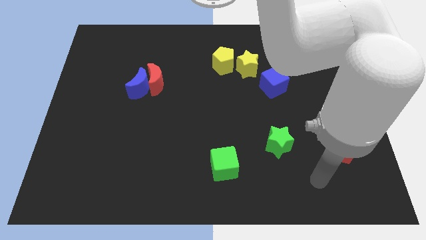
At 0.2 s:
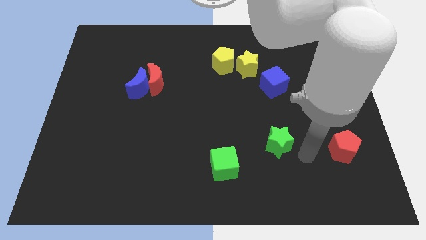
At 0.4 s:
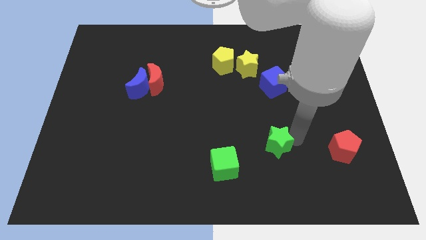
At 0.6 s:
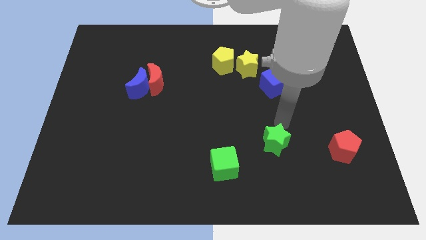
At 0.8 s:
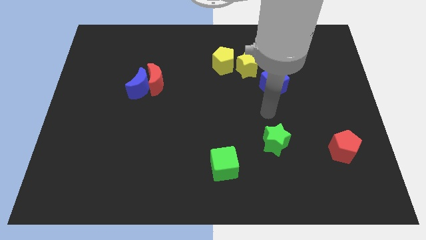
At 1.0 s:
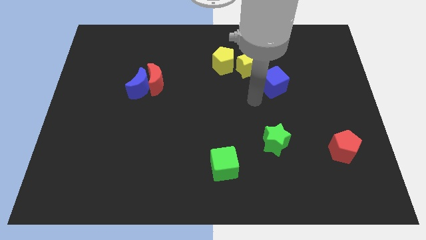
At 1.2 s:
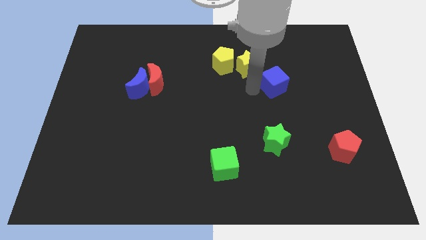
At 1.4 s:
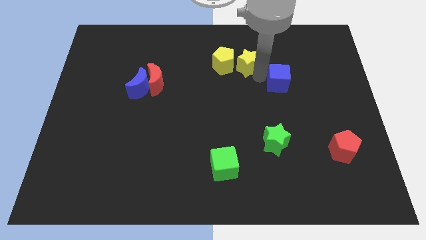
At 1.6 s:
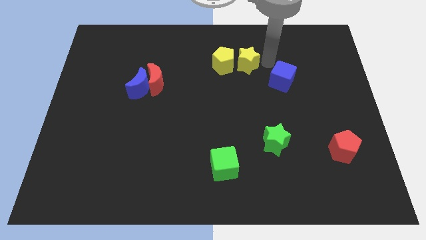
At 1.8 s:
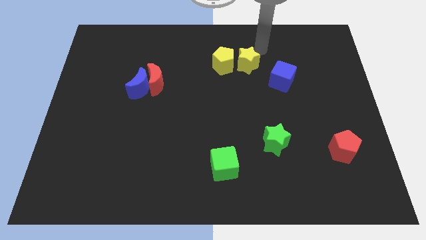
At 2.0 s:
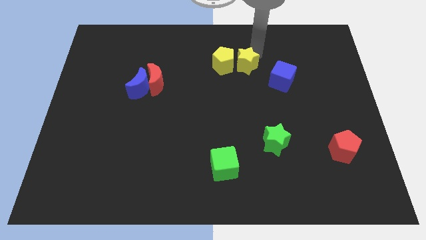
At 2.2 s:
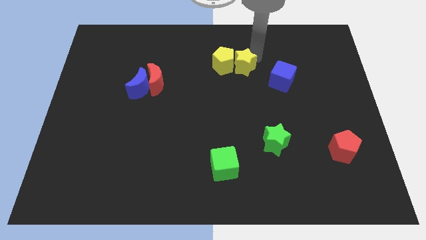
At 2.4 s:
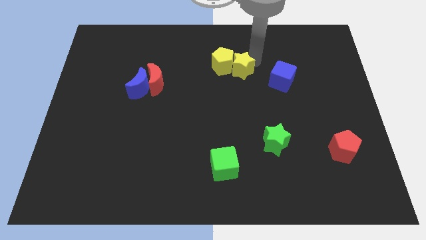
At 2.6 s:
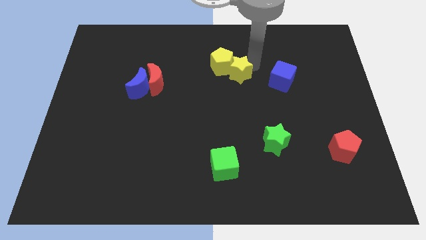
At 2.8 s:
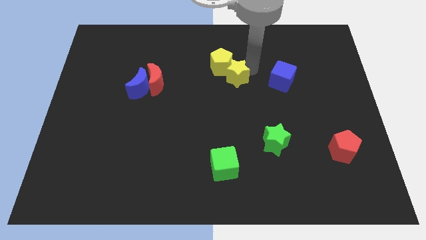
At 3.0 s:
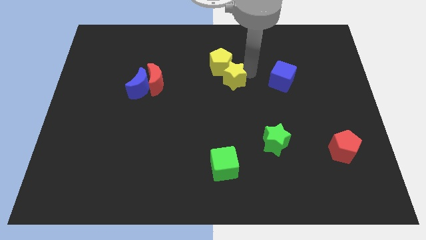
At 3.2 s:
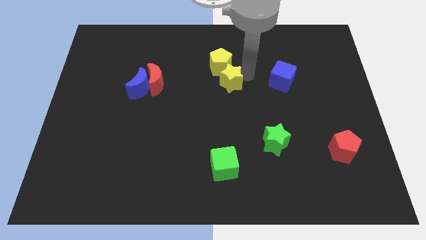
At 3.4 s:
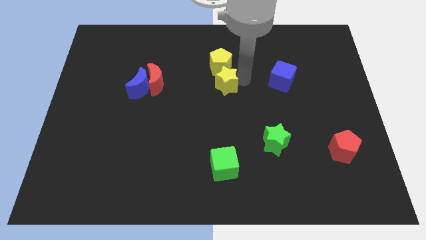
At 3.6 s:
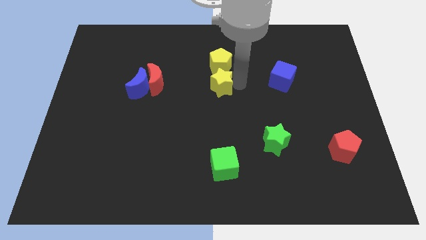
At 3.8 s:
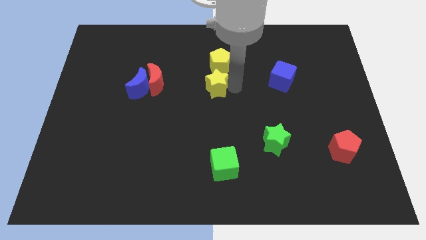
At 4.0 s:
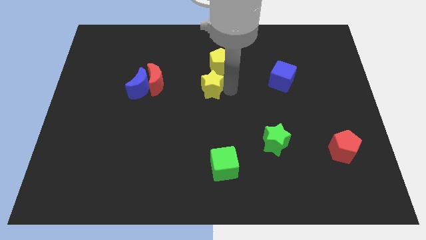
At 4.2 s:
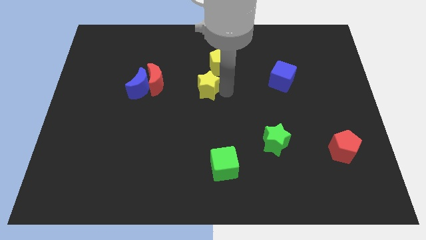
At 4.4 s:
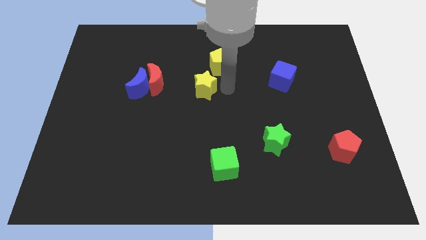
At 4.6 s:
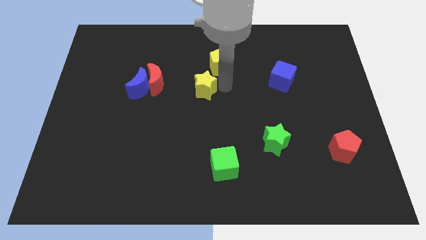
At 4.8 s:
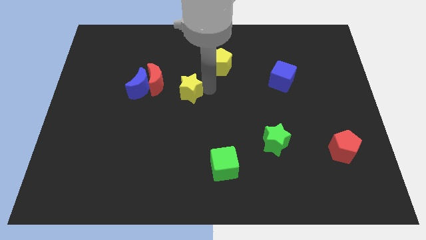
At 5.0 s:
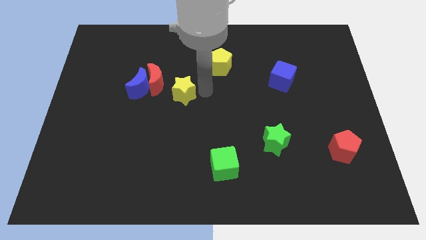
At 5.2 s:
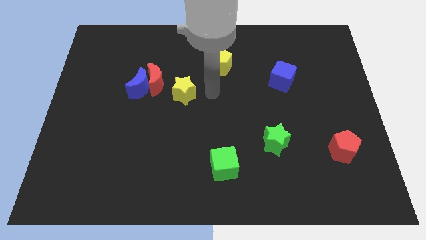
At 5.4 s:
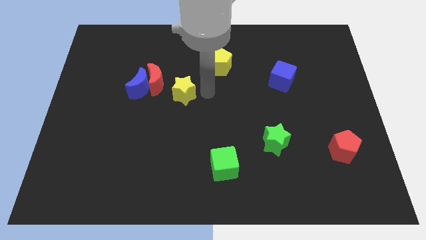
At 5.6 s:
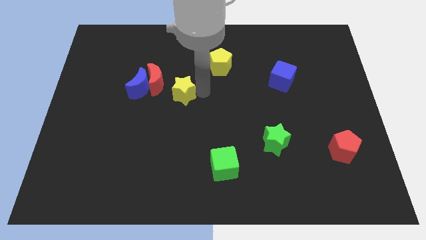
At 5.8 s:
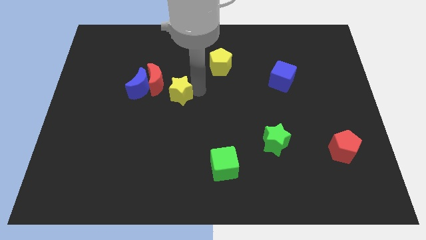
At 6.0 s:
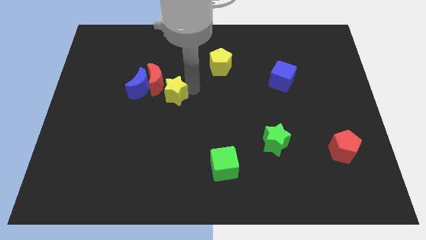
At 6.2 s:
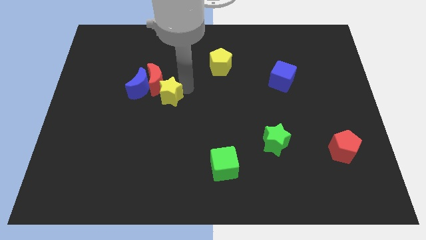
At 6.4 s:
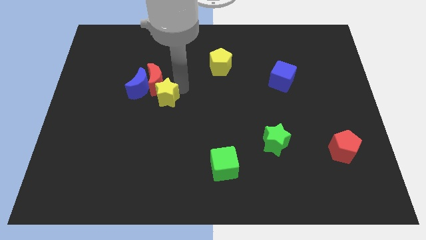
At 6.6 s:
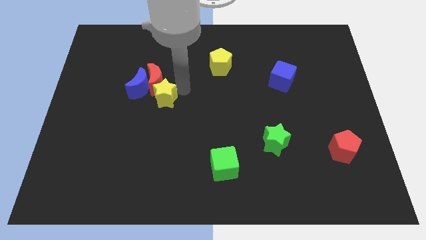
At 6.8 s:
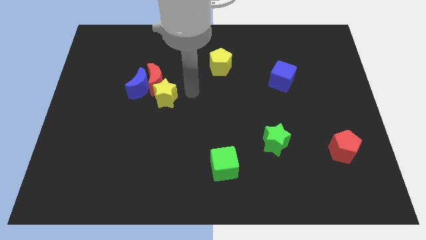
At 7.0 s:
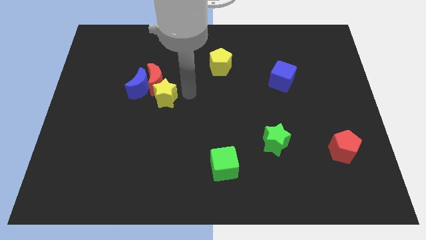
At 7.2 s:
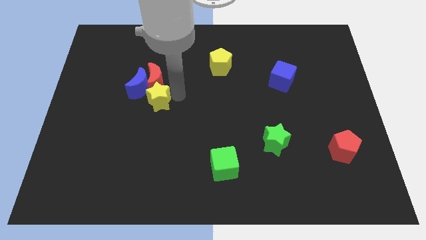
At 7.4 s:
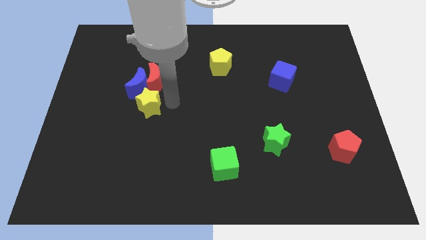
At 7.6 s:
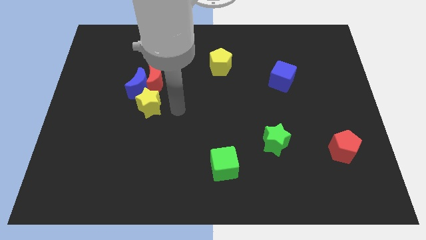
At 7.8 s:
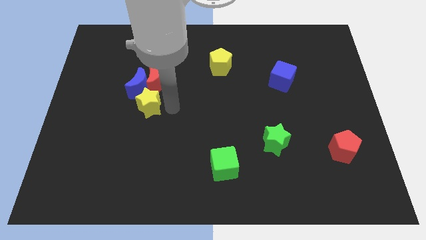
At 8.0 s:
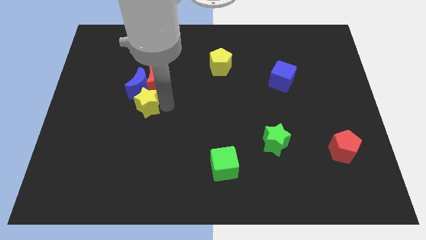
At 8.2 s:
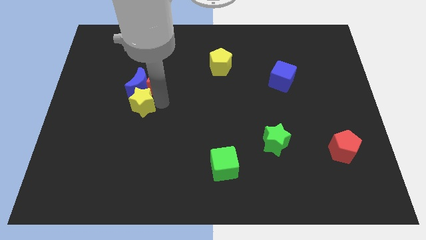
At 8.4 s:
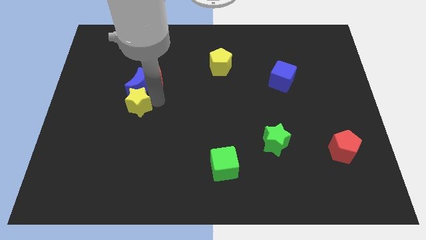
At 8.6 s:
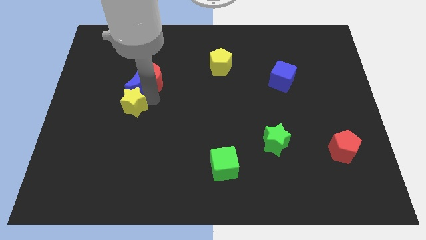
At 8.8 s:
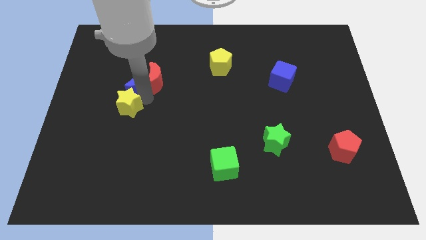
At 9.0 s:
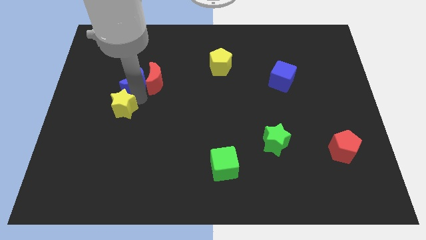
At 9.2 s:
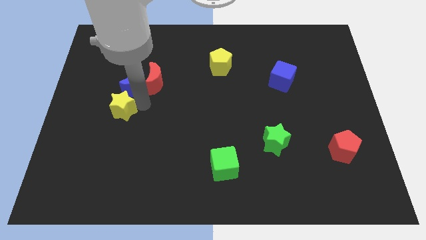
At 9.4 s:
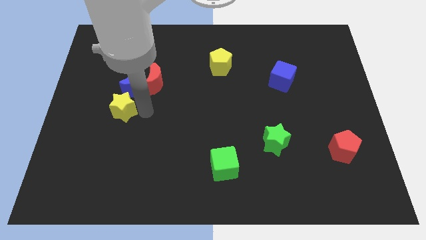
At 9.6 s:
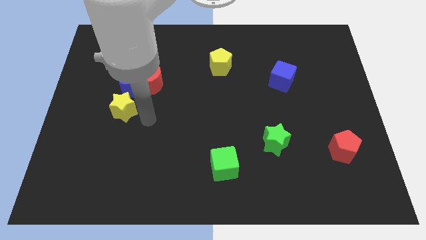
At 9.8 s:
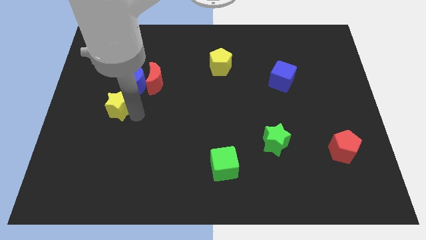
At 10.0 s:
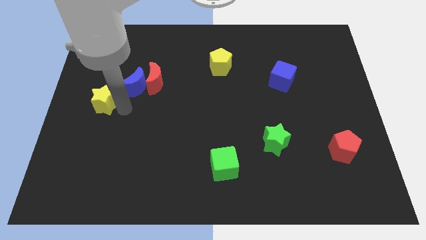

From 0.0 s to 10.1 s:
put the yellow star to the left side

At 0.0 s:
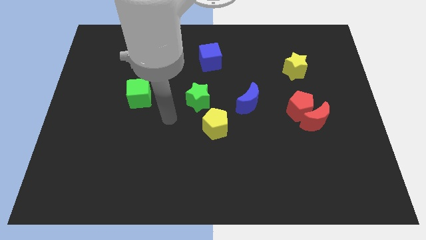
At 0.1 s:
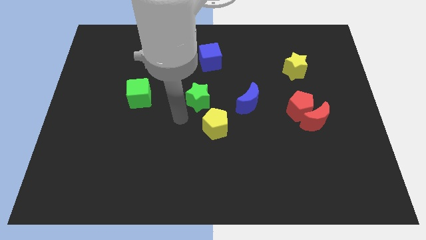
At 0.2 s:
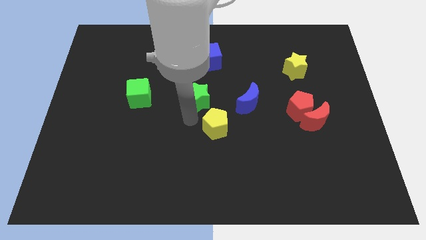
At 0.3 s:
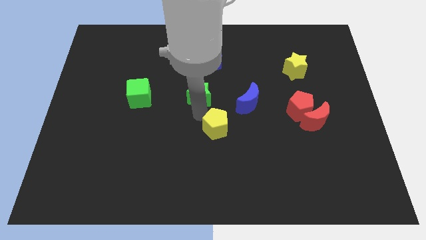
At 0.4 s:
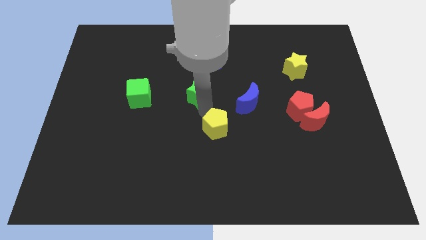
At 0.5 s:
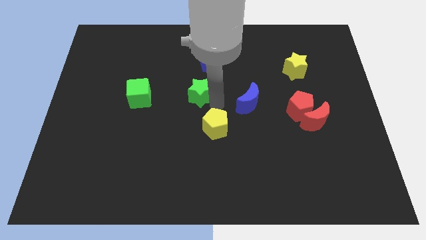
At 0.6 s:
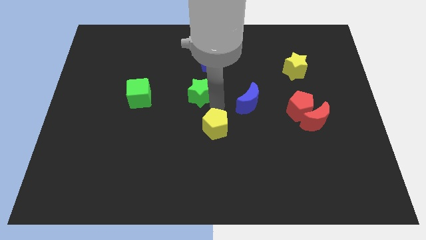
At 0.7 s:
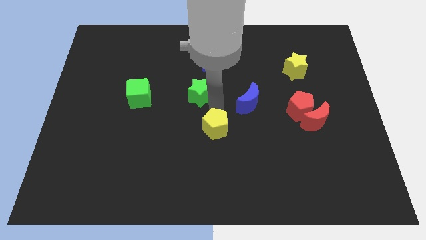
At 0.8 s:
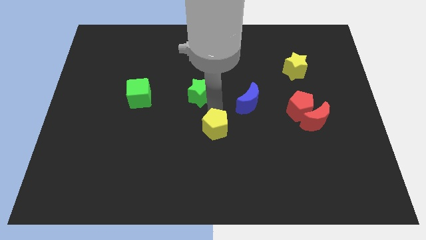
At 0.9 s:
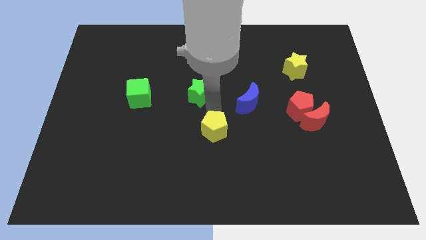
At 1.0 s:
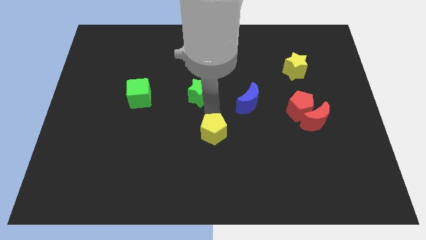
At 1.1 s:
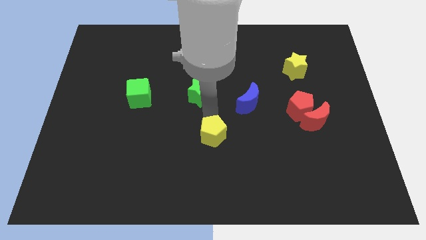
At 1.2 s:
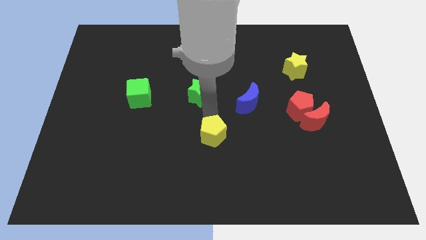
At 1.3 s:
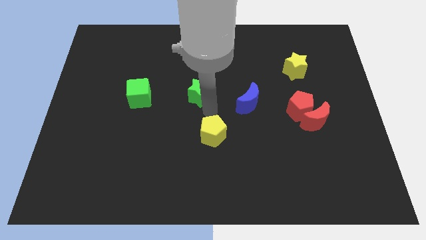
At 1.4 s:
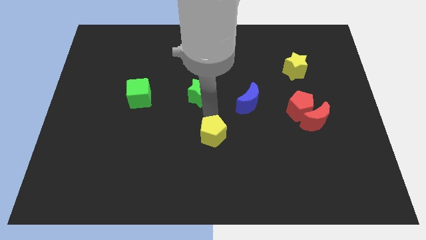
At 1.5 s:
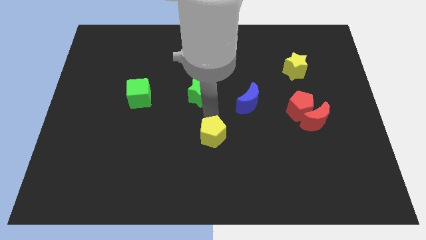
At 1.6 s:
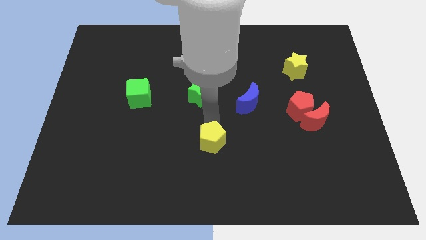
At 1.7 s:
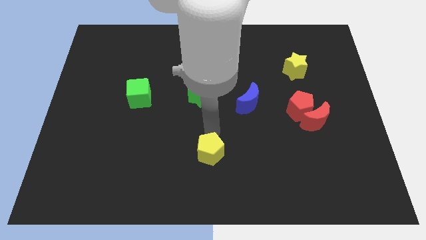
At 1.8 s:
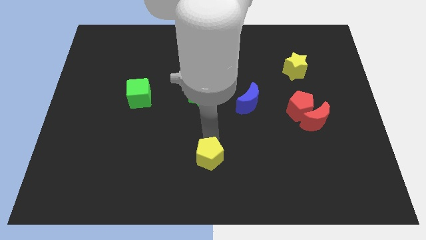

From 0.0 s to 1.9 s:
push the yellow pentagon to the bottom side
